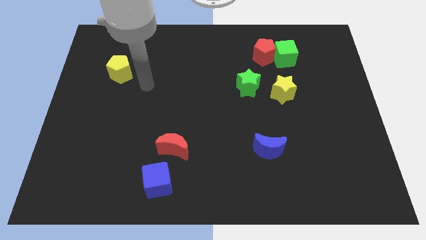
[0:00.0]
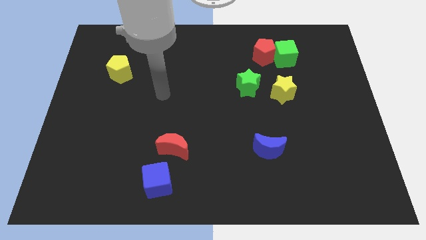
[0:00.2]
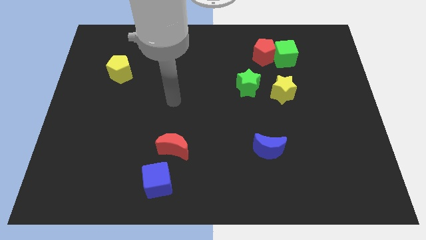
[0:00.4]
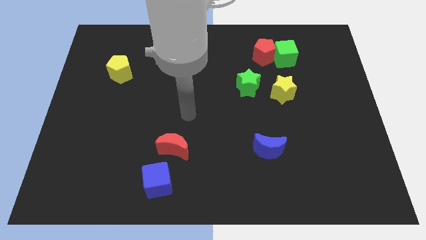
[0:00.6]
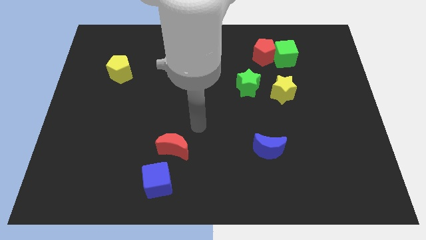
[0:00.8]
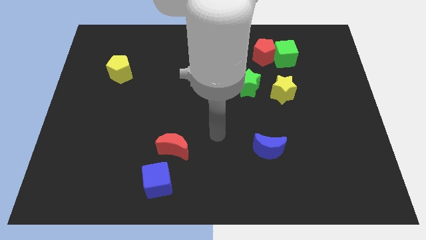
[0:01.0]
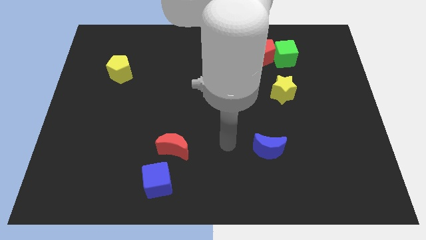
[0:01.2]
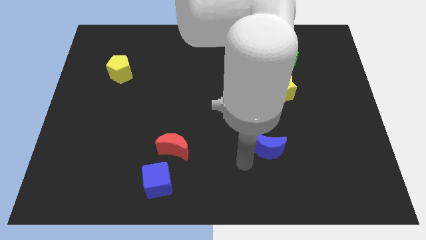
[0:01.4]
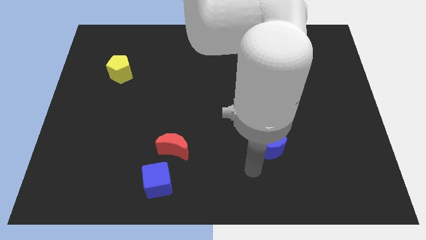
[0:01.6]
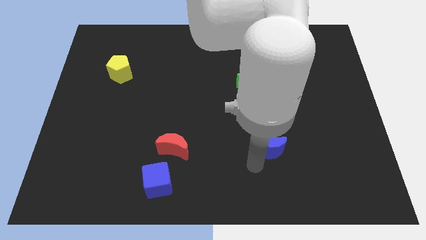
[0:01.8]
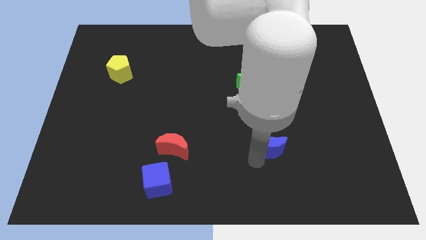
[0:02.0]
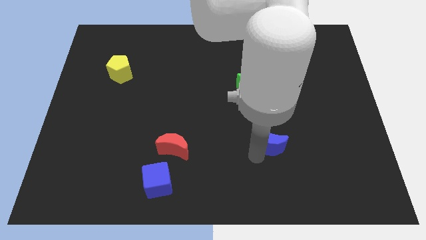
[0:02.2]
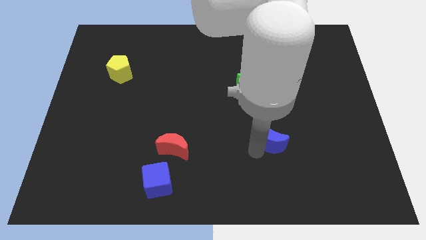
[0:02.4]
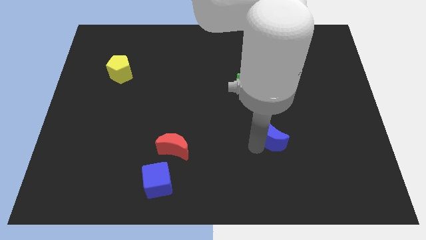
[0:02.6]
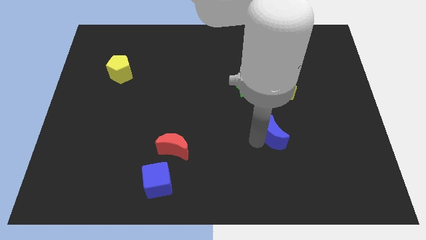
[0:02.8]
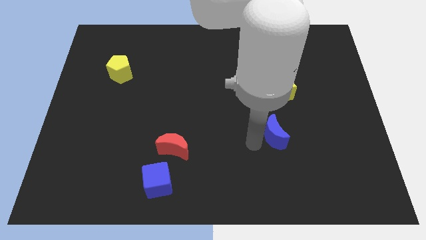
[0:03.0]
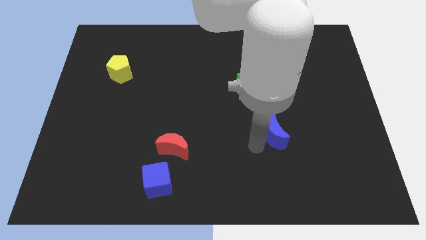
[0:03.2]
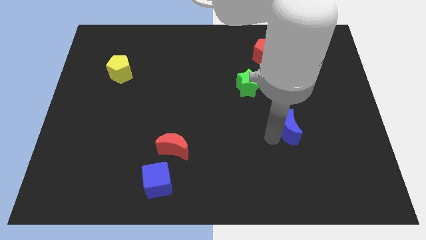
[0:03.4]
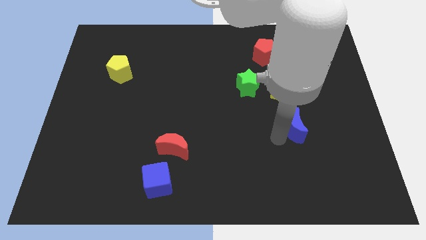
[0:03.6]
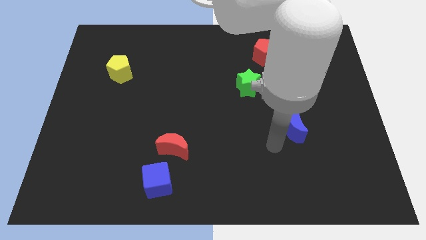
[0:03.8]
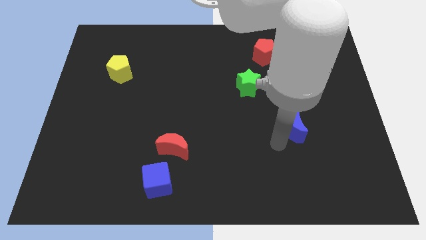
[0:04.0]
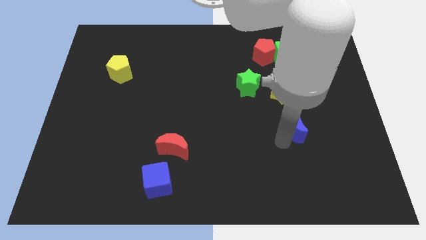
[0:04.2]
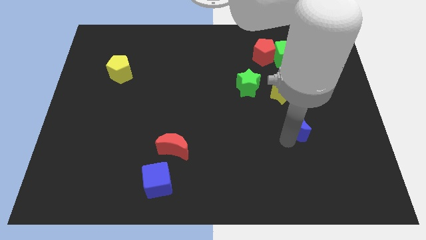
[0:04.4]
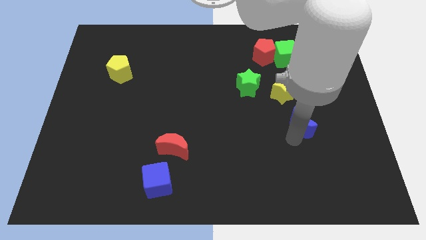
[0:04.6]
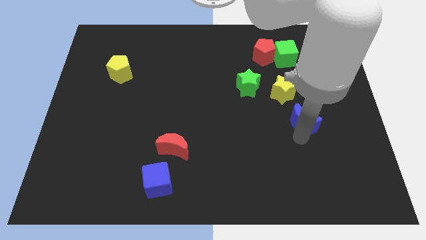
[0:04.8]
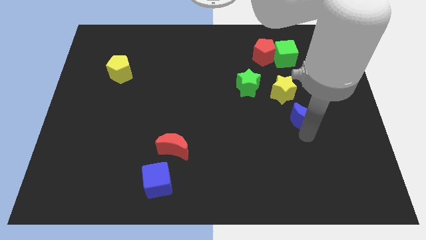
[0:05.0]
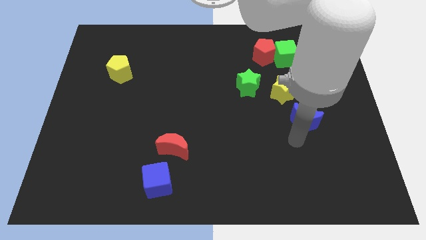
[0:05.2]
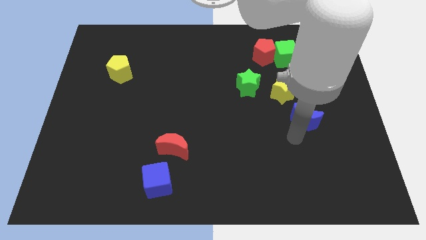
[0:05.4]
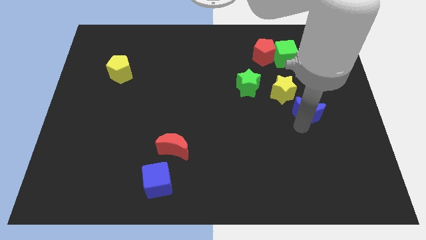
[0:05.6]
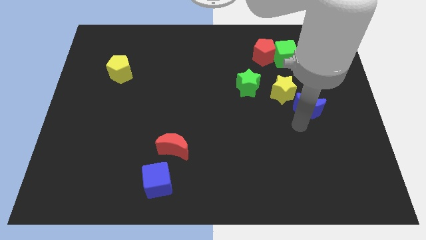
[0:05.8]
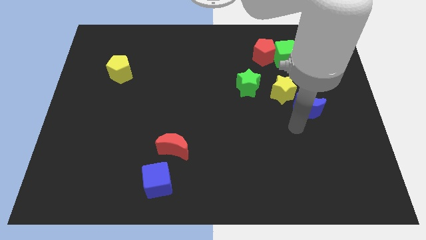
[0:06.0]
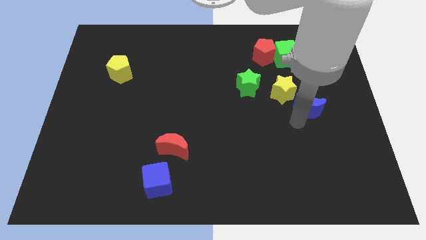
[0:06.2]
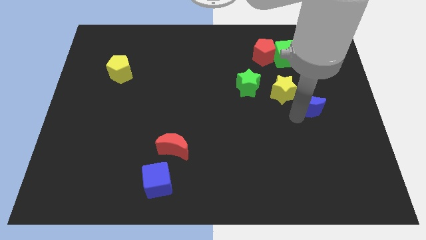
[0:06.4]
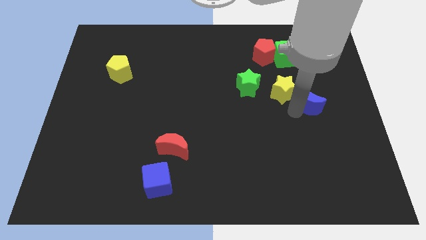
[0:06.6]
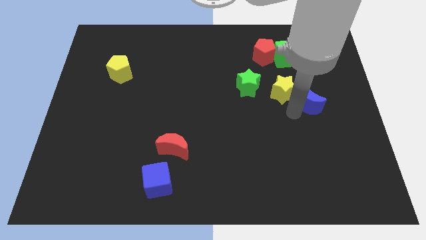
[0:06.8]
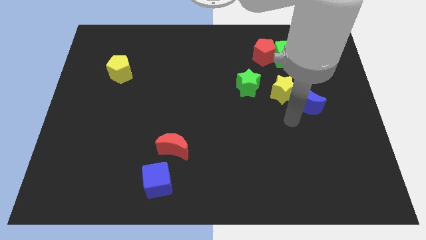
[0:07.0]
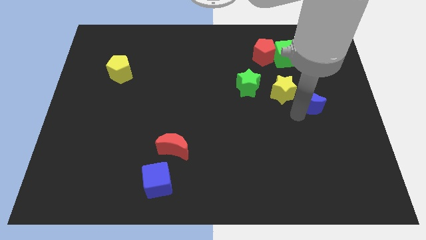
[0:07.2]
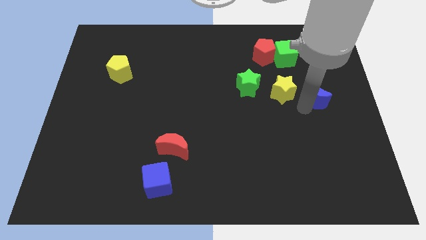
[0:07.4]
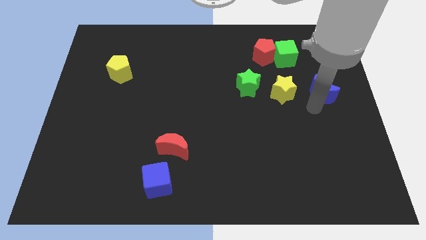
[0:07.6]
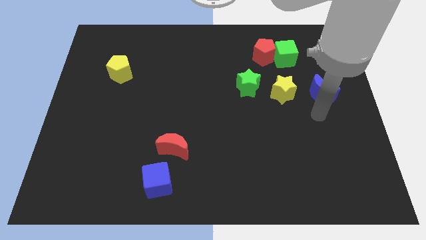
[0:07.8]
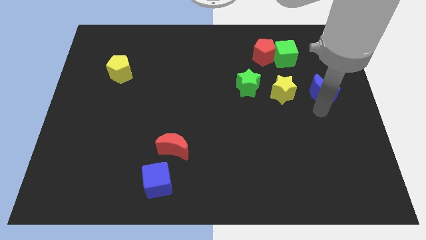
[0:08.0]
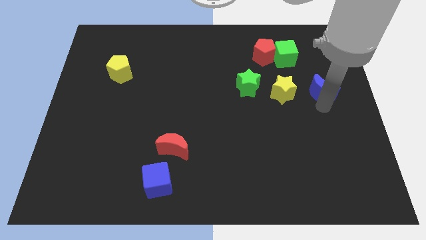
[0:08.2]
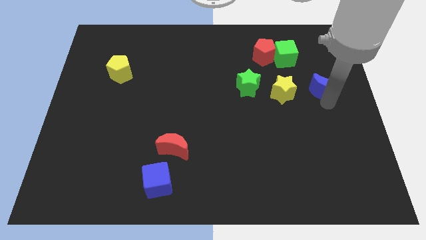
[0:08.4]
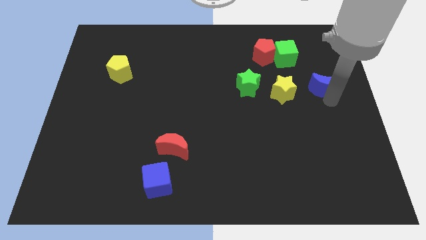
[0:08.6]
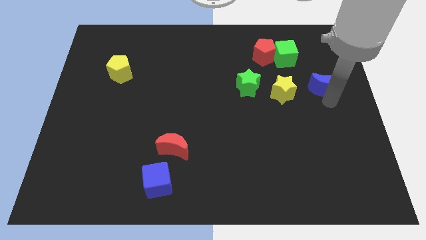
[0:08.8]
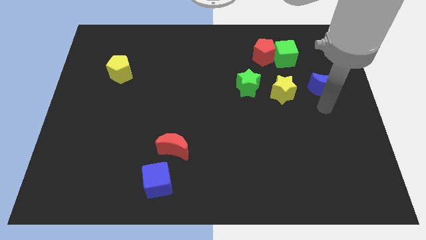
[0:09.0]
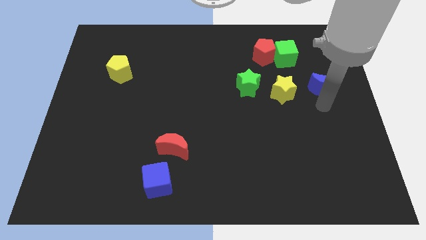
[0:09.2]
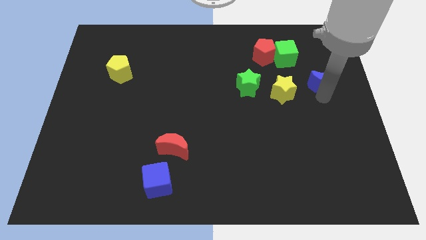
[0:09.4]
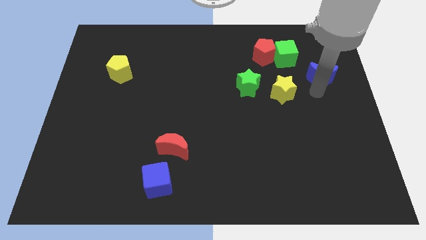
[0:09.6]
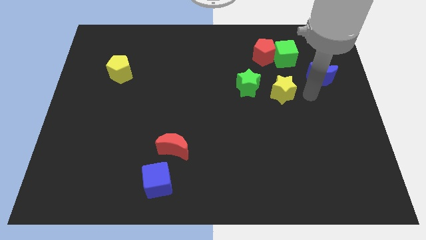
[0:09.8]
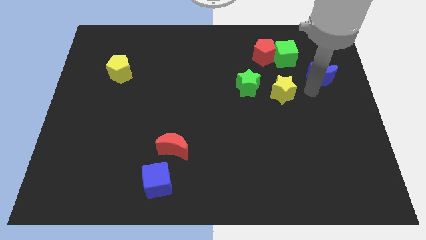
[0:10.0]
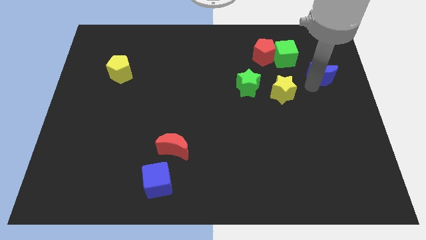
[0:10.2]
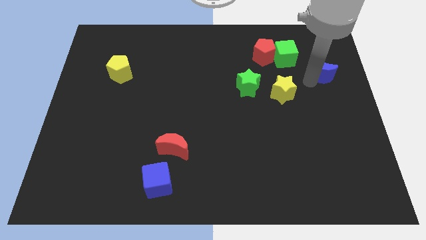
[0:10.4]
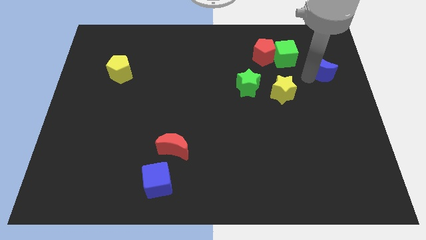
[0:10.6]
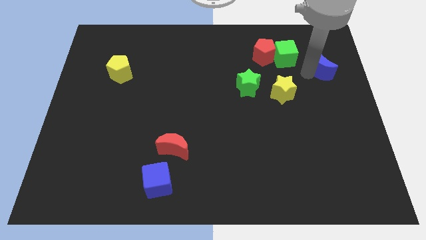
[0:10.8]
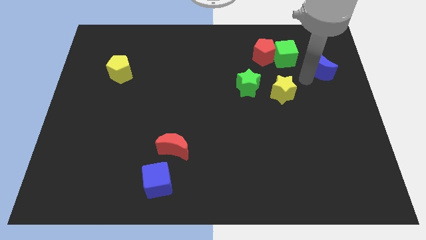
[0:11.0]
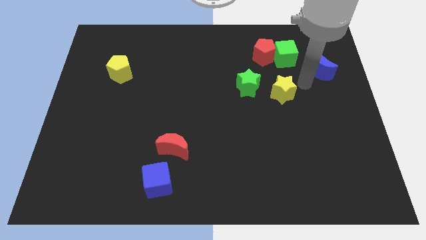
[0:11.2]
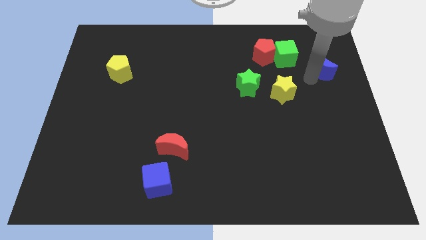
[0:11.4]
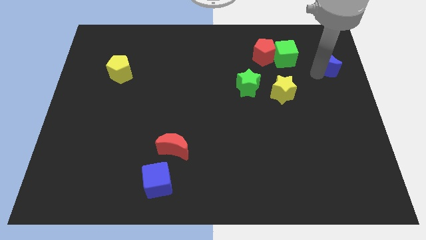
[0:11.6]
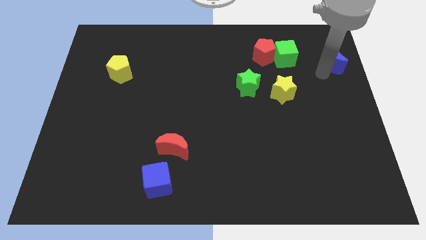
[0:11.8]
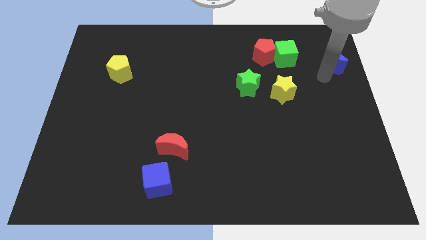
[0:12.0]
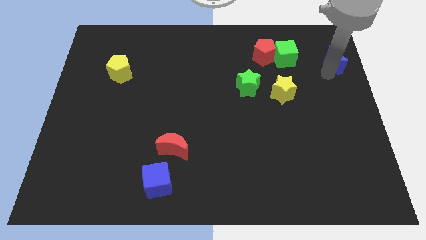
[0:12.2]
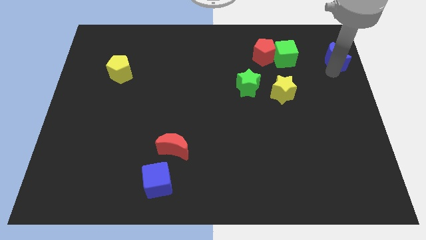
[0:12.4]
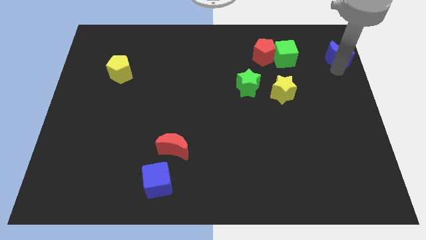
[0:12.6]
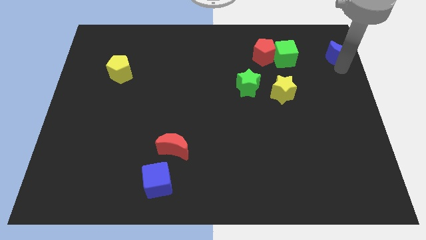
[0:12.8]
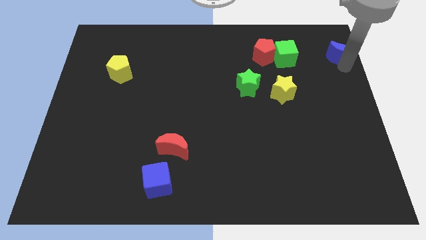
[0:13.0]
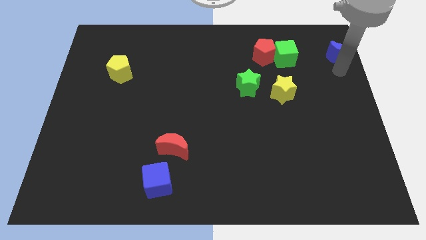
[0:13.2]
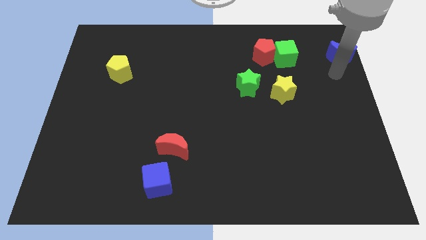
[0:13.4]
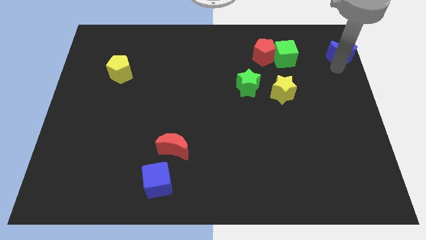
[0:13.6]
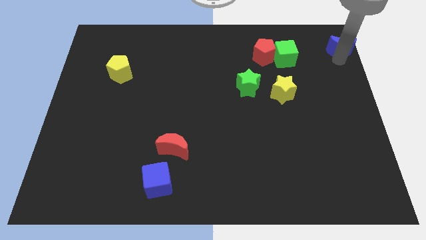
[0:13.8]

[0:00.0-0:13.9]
push the blue moon to the top right
